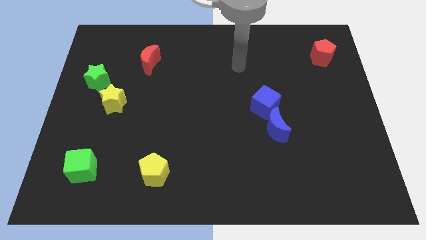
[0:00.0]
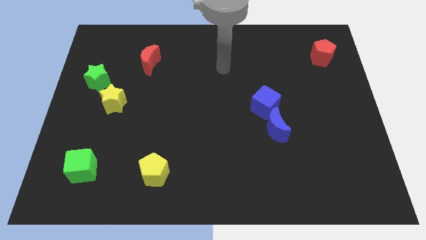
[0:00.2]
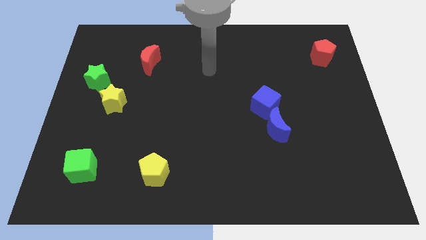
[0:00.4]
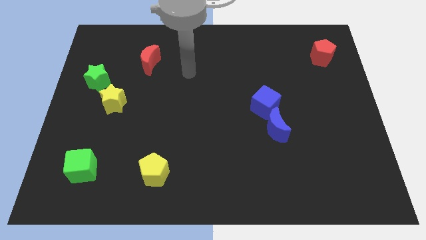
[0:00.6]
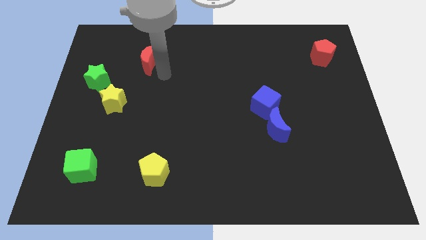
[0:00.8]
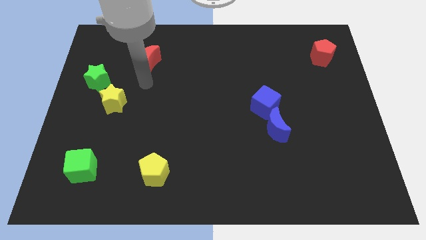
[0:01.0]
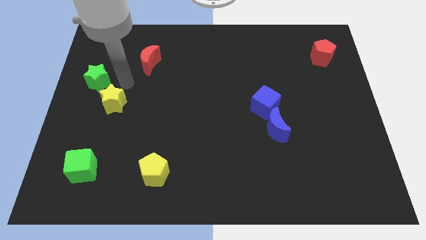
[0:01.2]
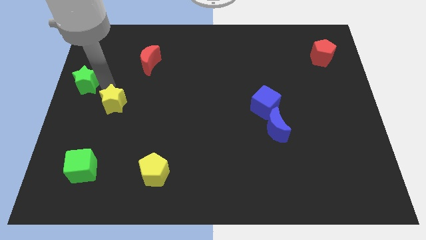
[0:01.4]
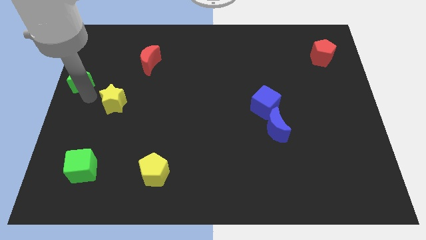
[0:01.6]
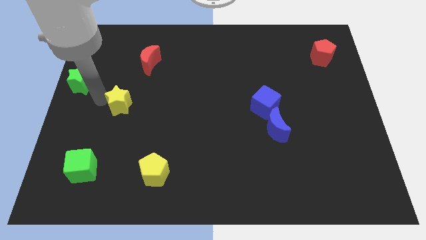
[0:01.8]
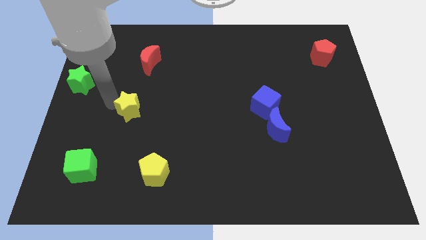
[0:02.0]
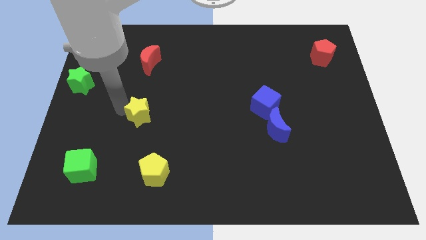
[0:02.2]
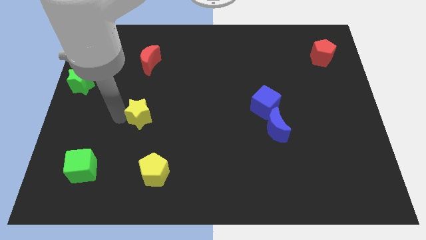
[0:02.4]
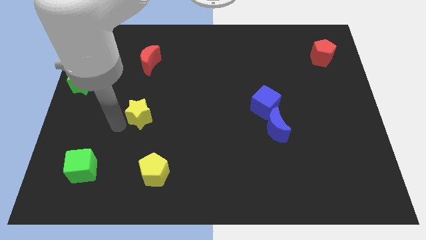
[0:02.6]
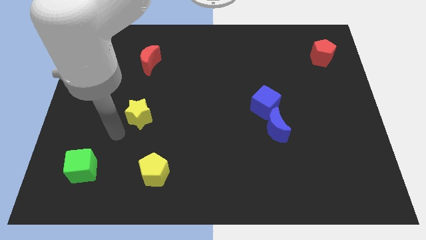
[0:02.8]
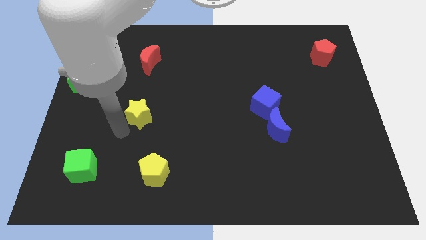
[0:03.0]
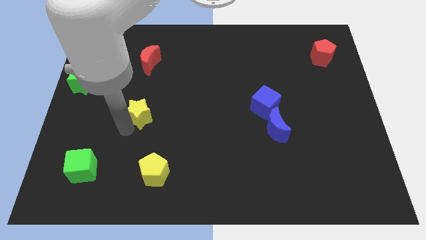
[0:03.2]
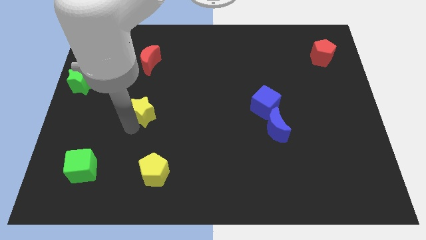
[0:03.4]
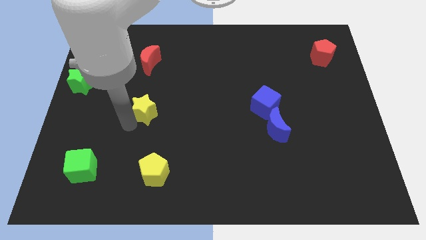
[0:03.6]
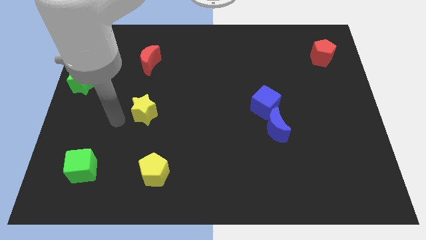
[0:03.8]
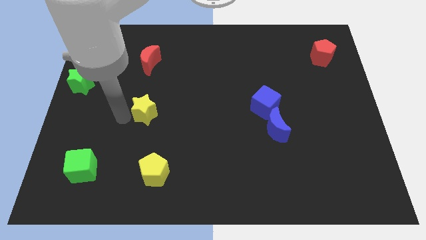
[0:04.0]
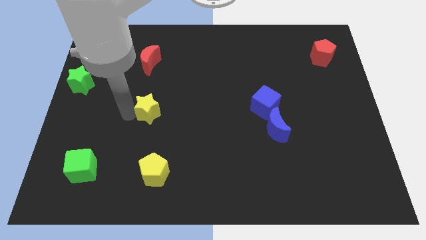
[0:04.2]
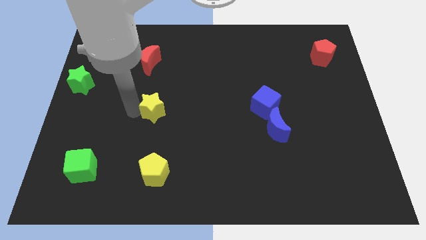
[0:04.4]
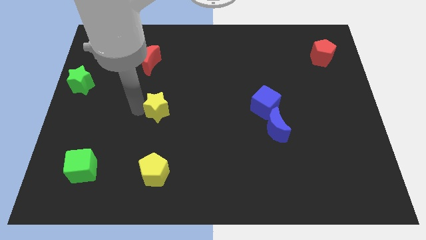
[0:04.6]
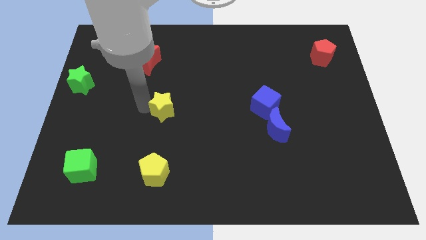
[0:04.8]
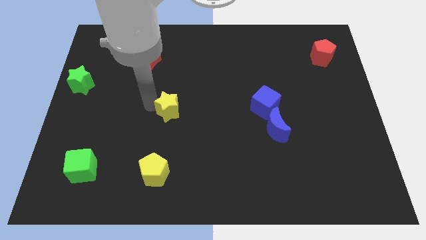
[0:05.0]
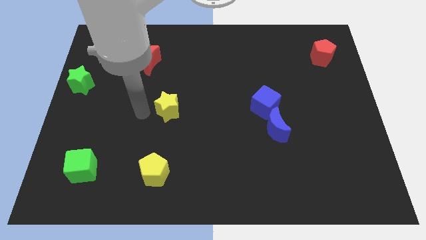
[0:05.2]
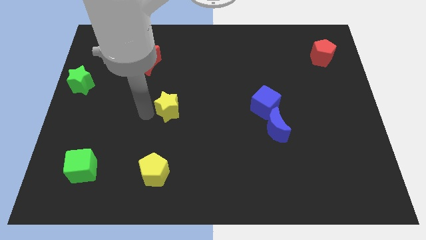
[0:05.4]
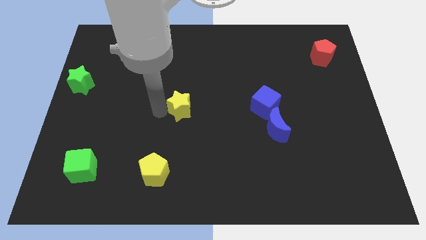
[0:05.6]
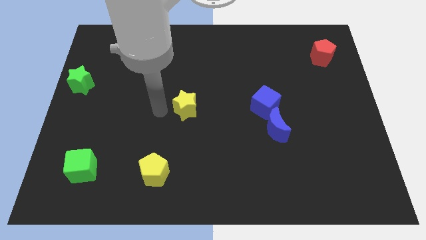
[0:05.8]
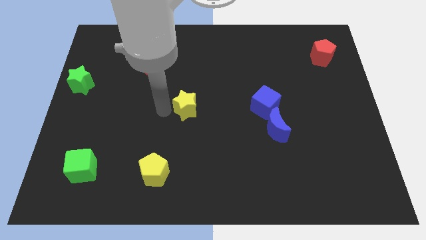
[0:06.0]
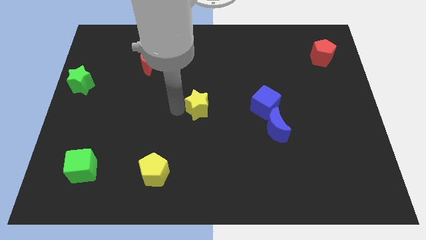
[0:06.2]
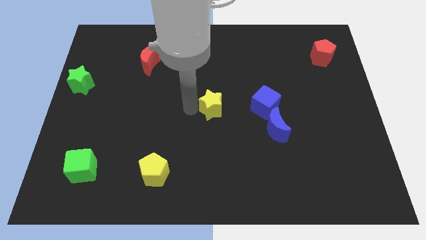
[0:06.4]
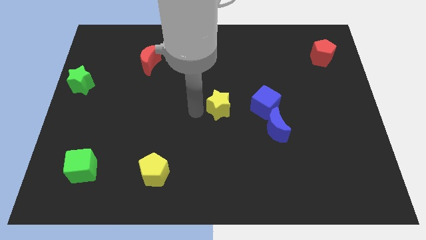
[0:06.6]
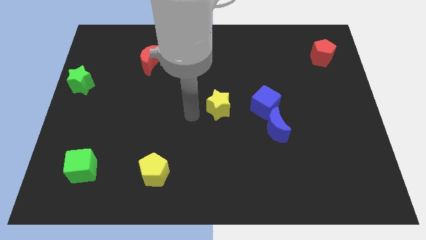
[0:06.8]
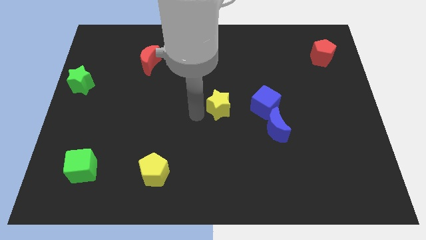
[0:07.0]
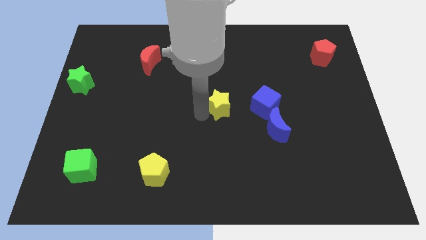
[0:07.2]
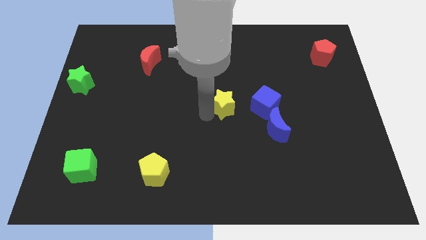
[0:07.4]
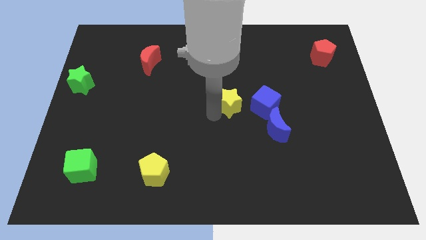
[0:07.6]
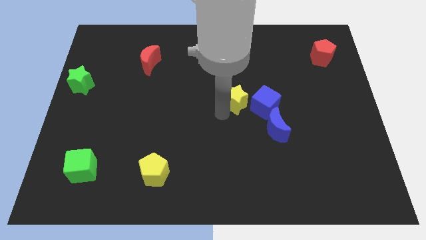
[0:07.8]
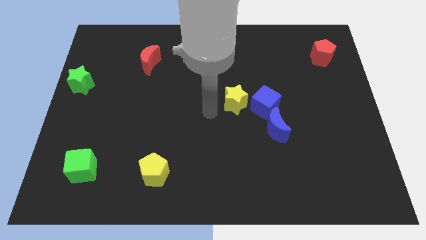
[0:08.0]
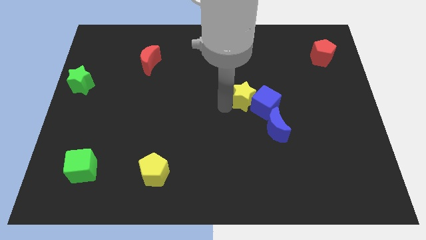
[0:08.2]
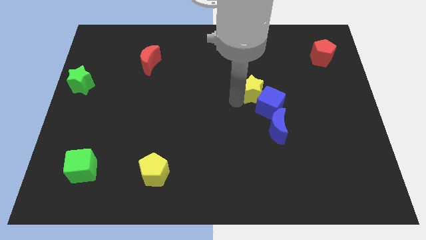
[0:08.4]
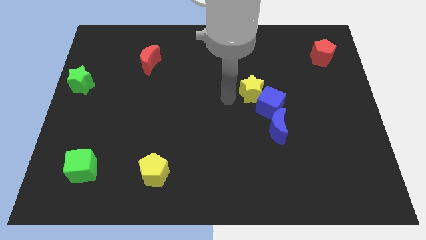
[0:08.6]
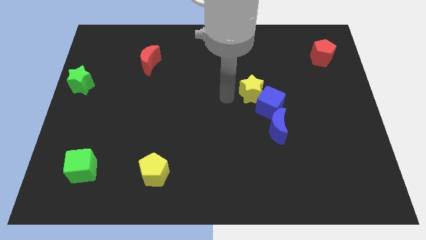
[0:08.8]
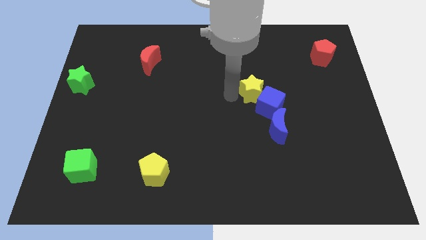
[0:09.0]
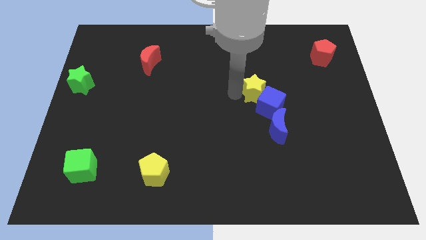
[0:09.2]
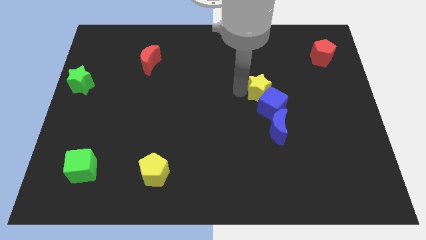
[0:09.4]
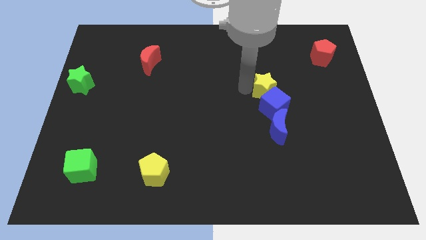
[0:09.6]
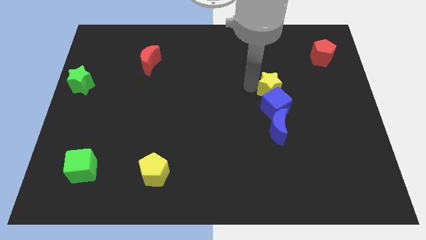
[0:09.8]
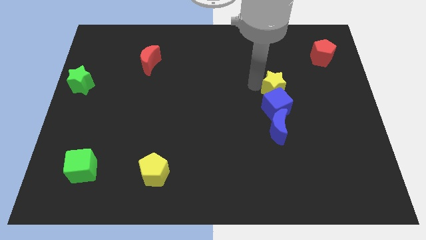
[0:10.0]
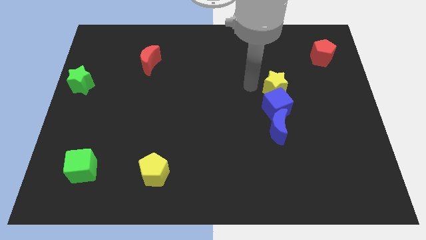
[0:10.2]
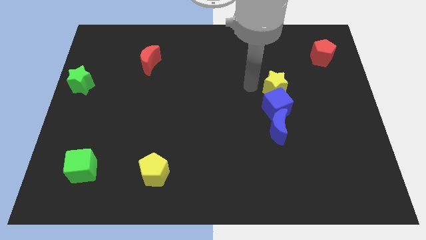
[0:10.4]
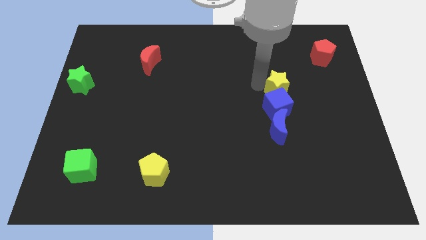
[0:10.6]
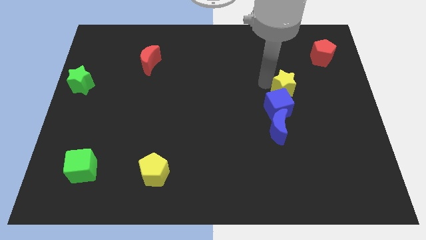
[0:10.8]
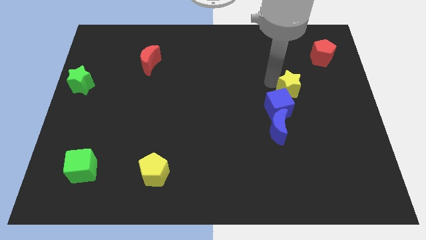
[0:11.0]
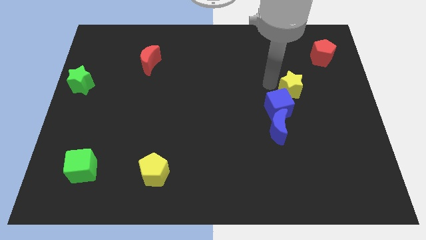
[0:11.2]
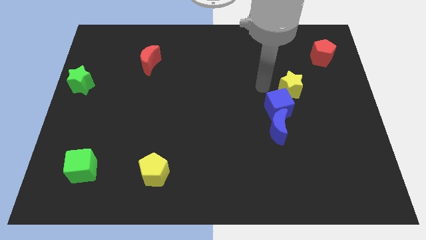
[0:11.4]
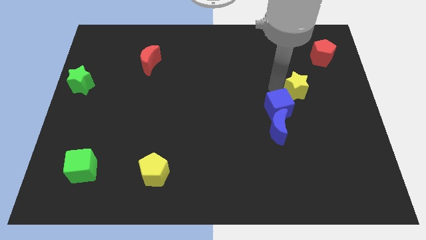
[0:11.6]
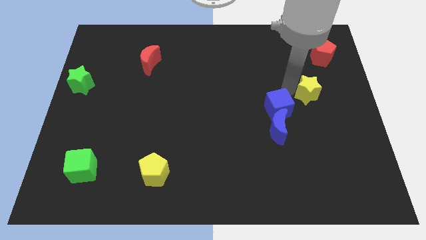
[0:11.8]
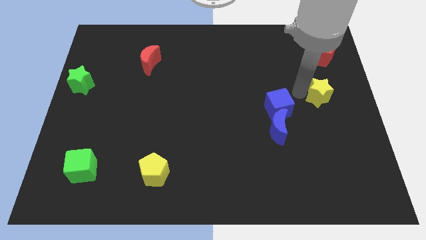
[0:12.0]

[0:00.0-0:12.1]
slide the yellow star to the center right
